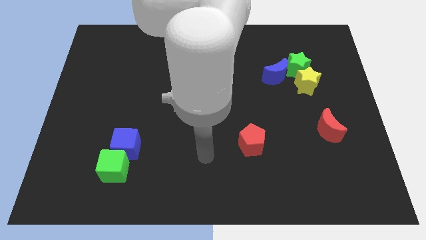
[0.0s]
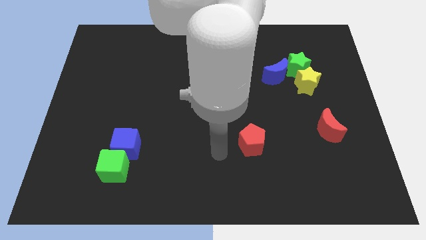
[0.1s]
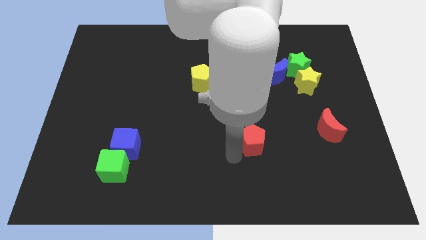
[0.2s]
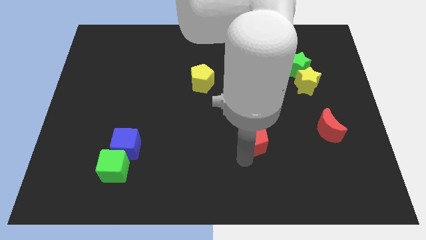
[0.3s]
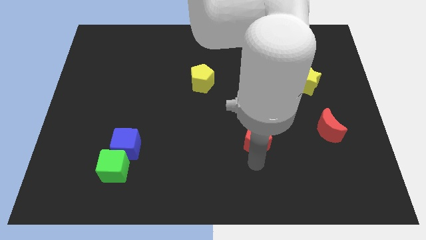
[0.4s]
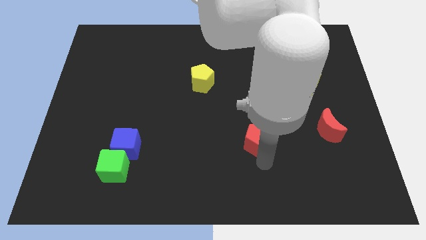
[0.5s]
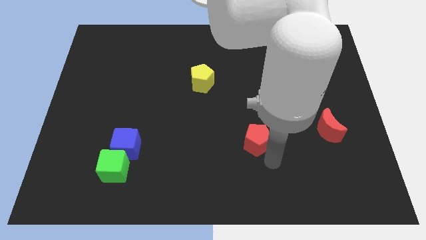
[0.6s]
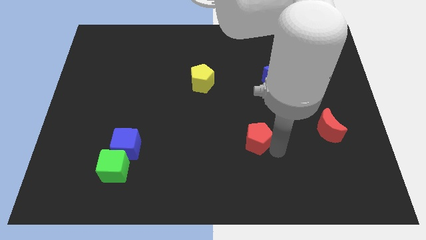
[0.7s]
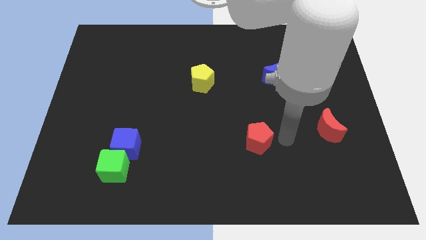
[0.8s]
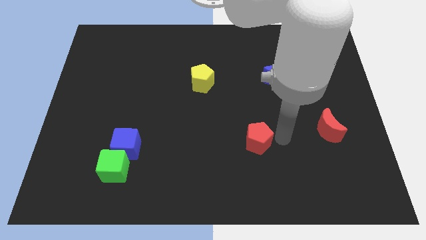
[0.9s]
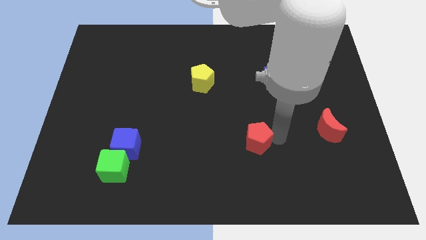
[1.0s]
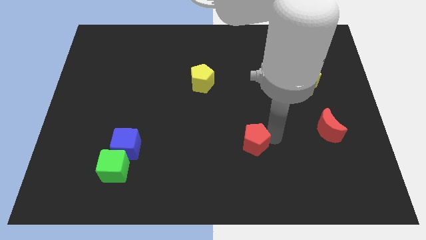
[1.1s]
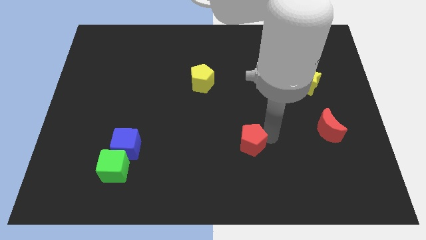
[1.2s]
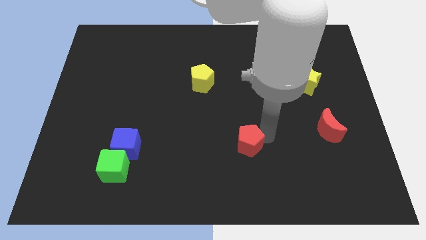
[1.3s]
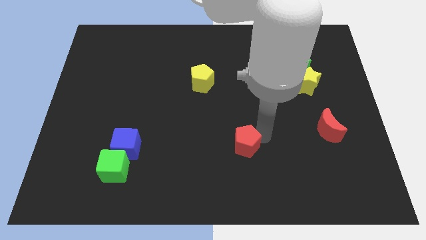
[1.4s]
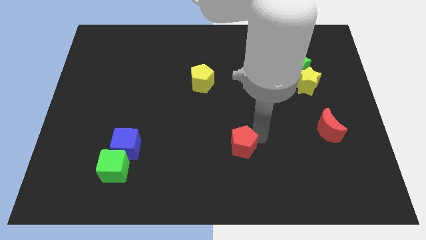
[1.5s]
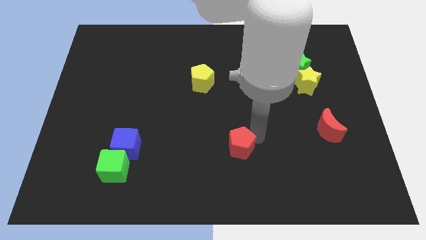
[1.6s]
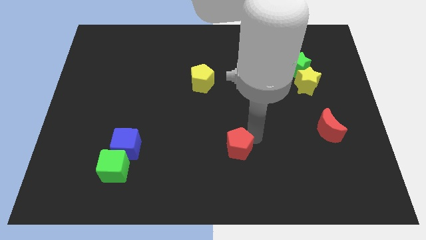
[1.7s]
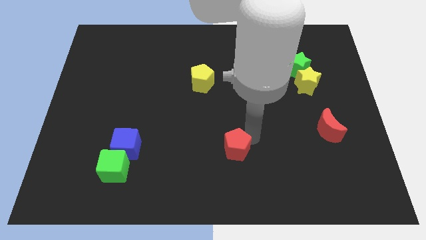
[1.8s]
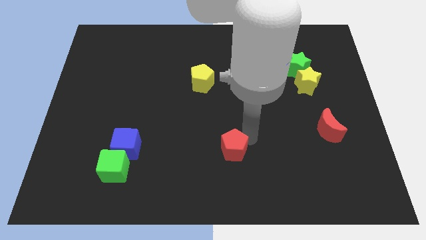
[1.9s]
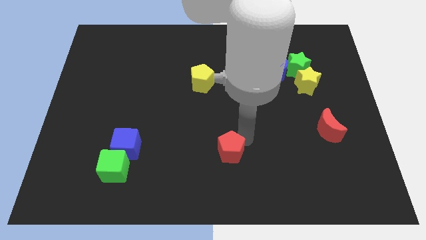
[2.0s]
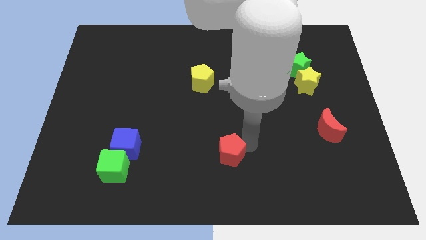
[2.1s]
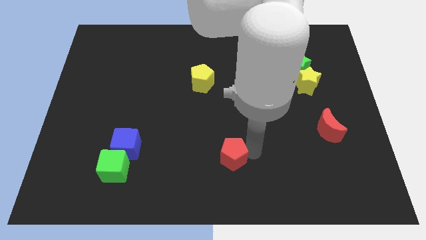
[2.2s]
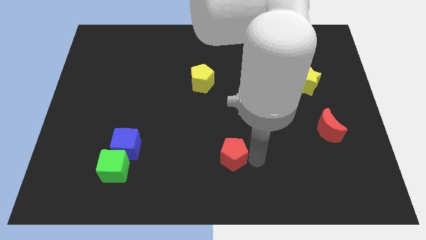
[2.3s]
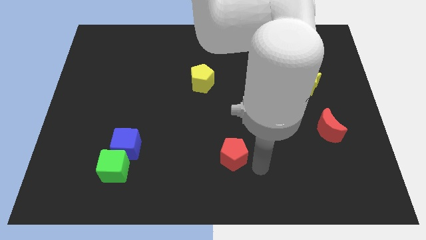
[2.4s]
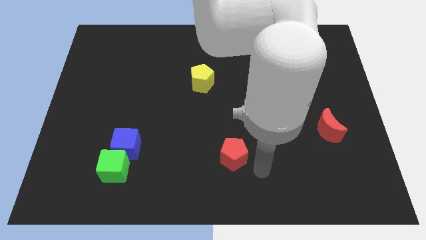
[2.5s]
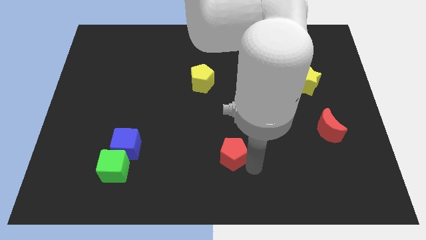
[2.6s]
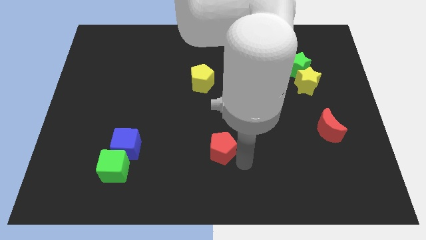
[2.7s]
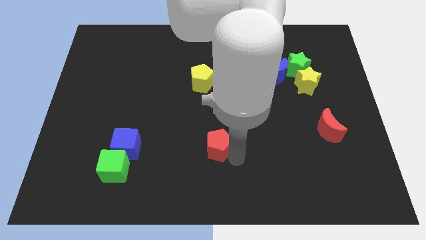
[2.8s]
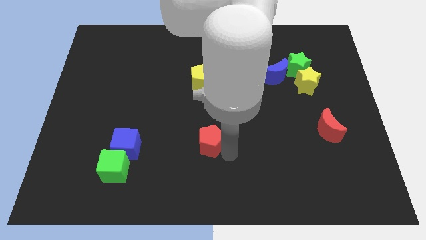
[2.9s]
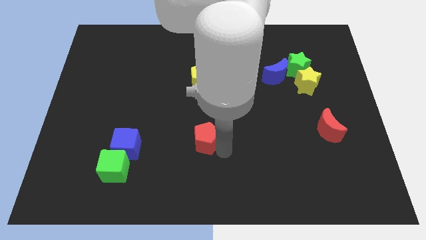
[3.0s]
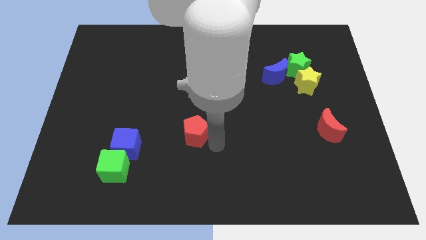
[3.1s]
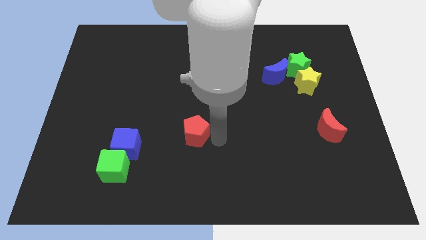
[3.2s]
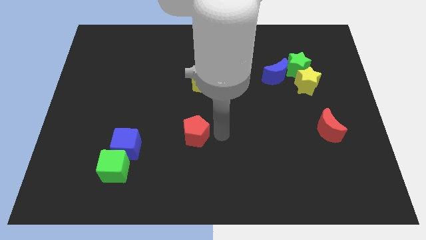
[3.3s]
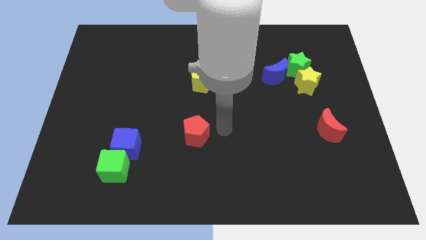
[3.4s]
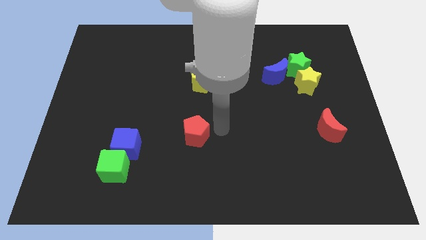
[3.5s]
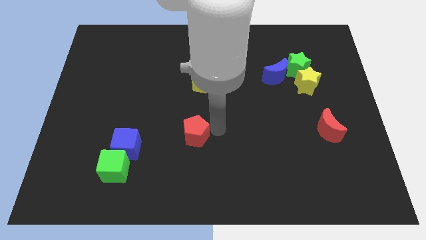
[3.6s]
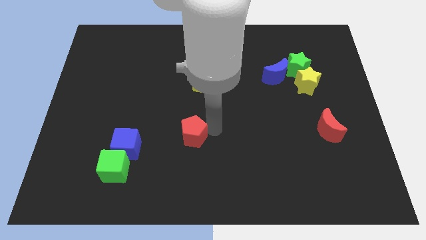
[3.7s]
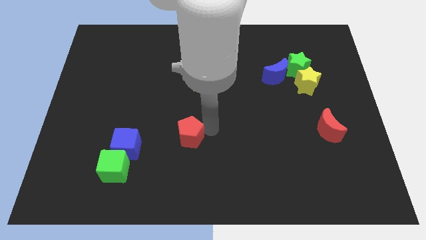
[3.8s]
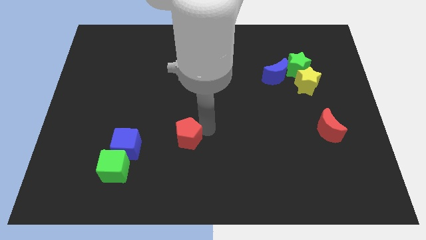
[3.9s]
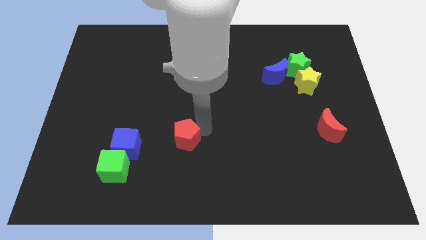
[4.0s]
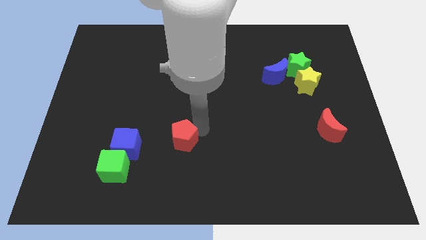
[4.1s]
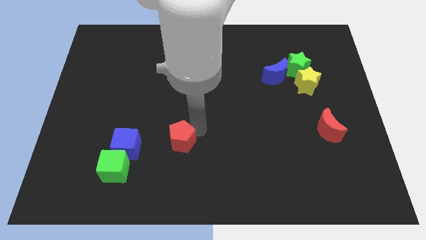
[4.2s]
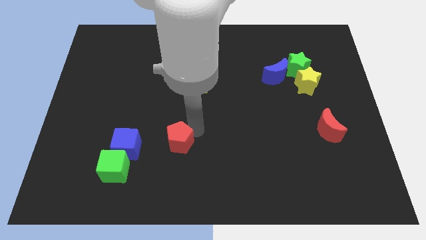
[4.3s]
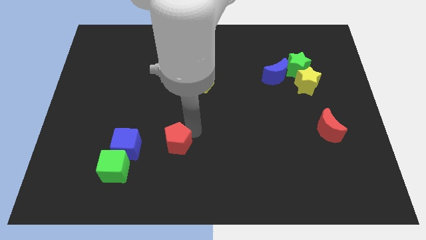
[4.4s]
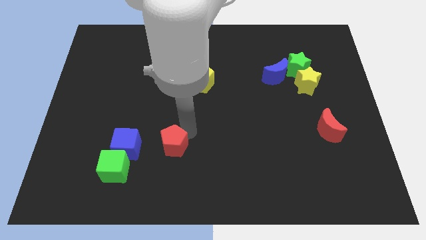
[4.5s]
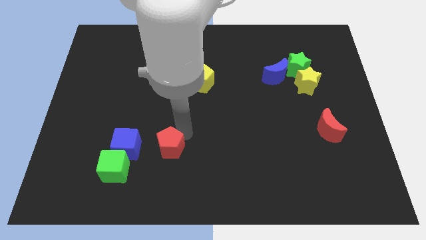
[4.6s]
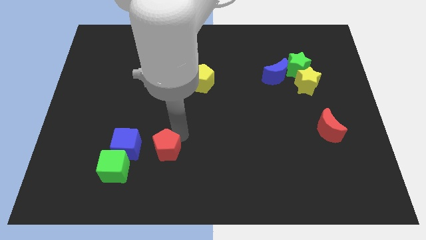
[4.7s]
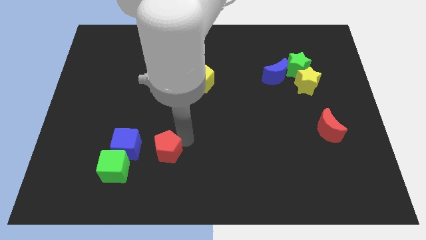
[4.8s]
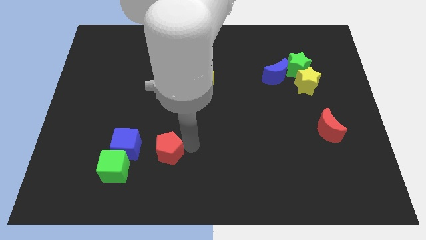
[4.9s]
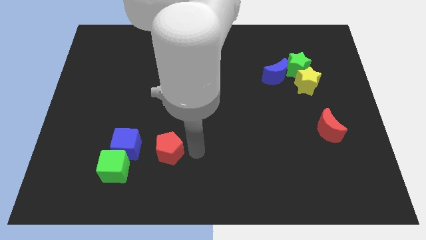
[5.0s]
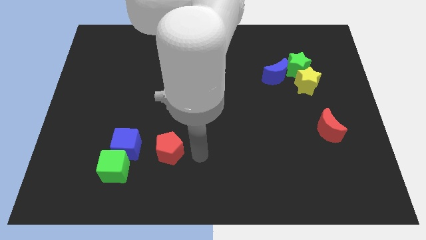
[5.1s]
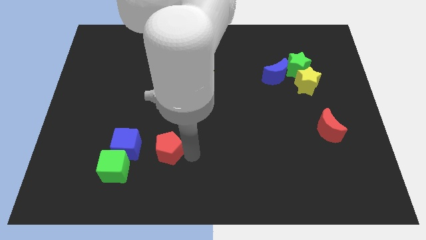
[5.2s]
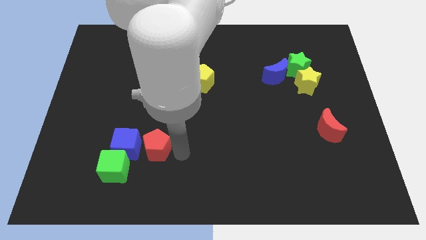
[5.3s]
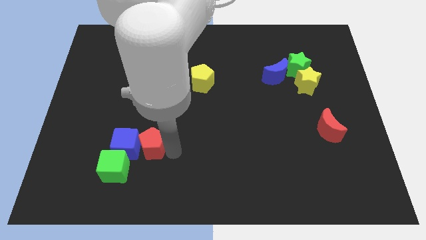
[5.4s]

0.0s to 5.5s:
put the red pentagon close to the blue cube

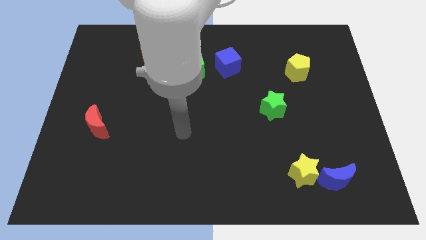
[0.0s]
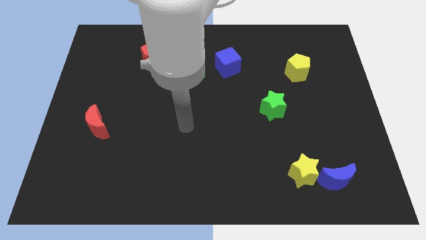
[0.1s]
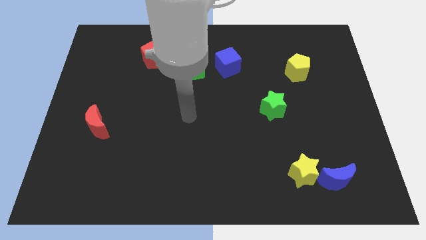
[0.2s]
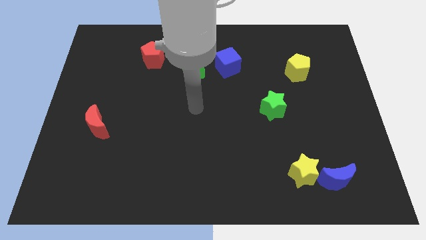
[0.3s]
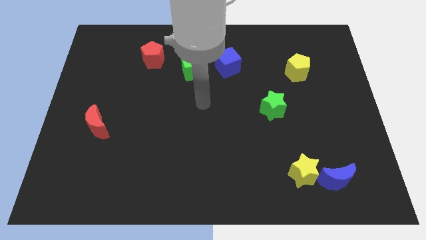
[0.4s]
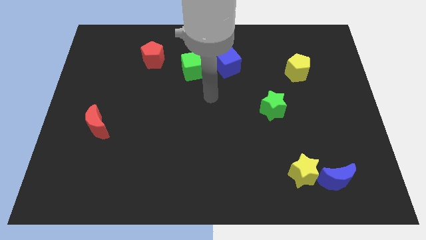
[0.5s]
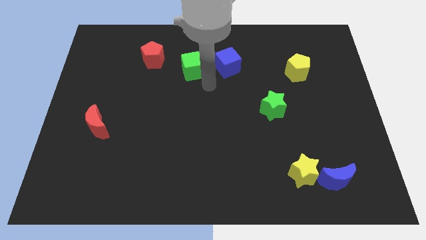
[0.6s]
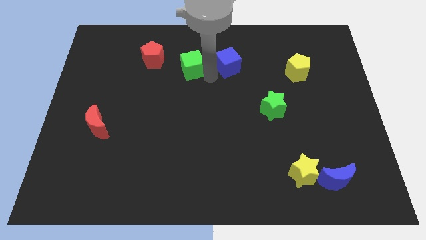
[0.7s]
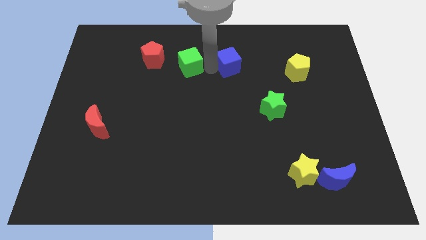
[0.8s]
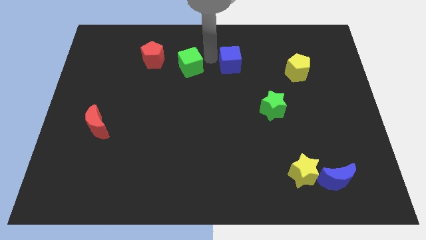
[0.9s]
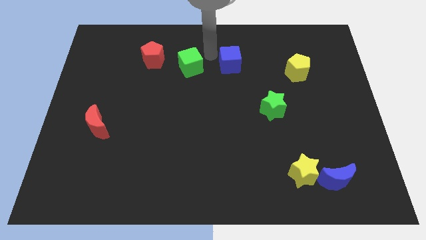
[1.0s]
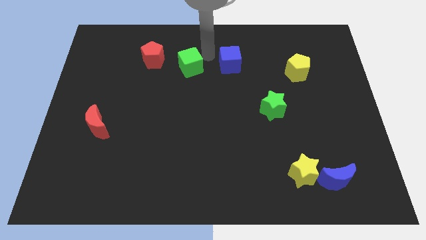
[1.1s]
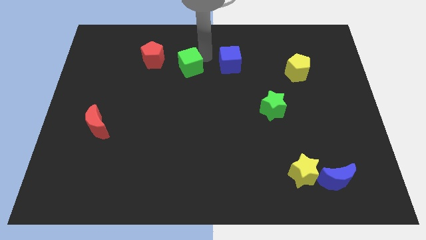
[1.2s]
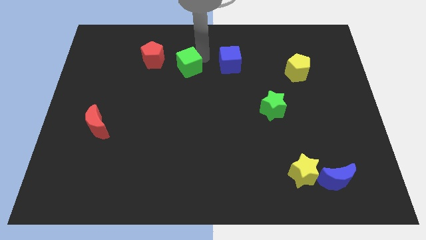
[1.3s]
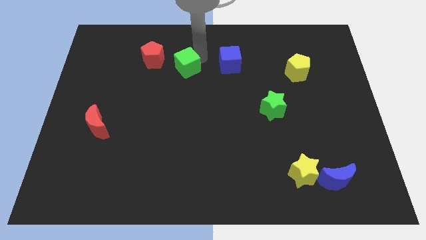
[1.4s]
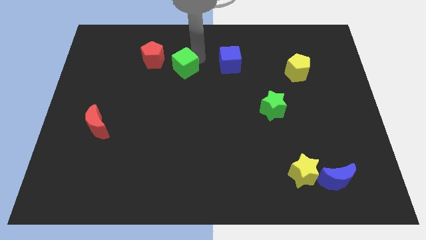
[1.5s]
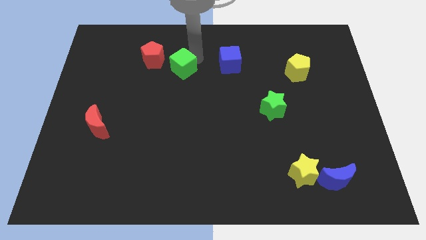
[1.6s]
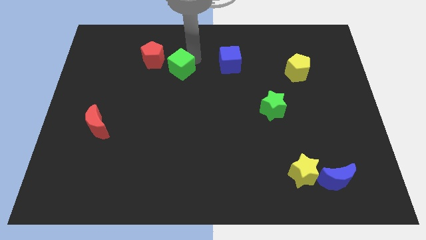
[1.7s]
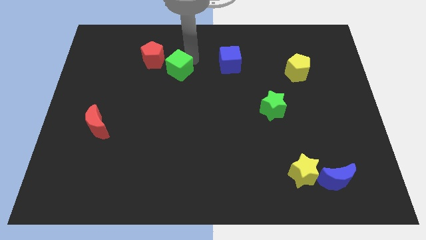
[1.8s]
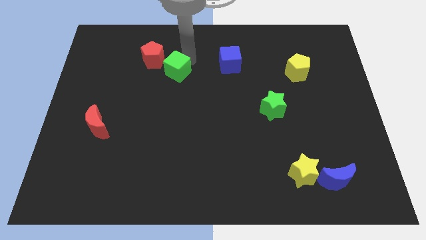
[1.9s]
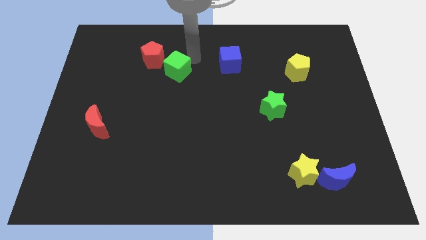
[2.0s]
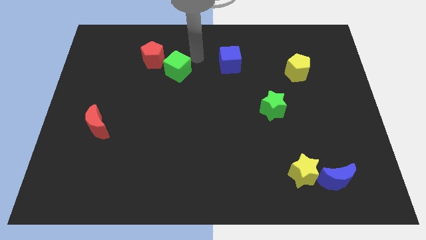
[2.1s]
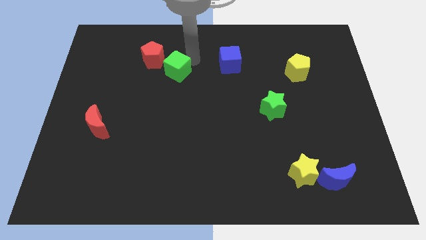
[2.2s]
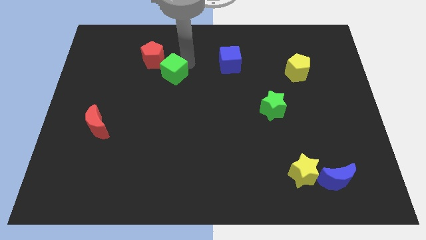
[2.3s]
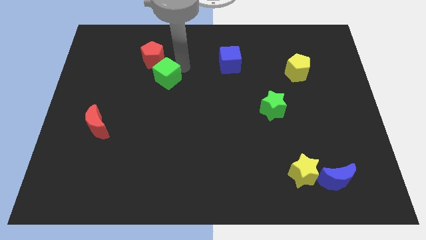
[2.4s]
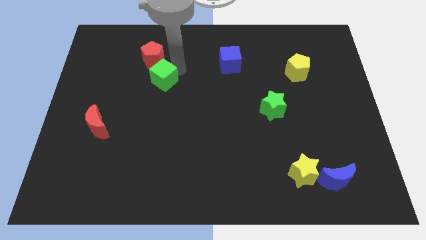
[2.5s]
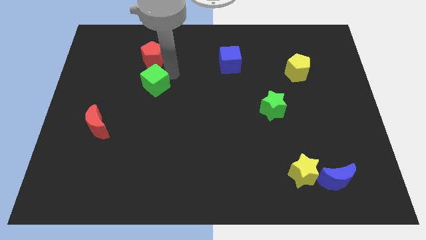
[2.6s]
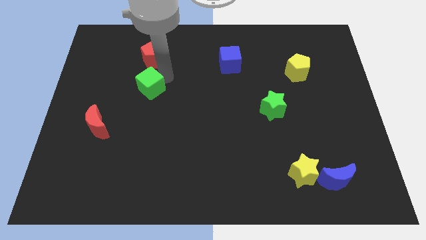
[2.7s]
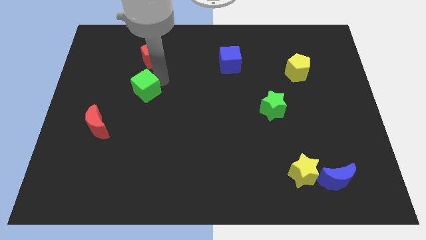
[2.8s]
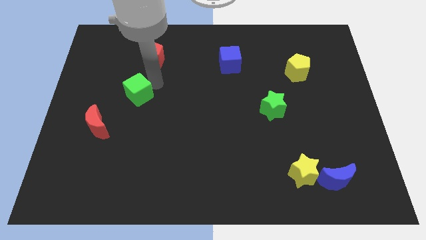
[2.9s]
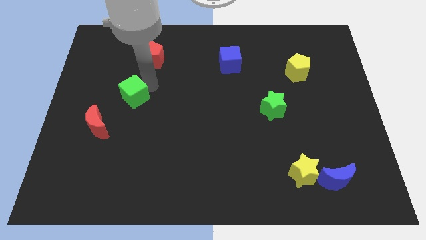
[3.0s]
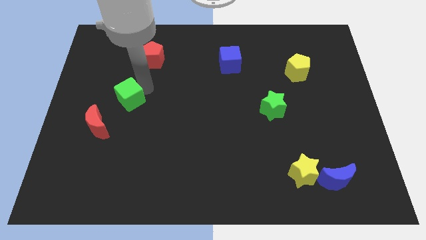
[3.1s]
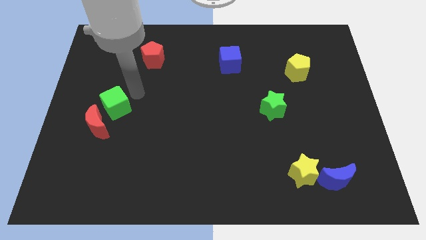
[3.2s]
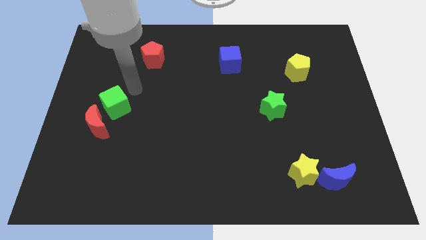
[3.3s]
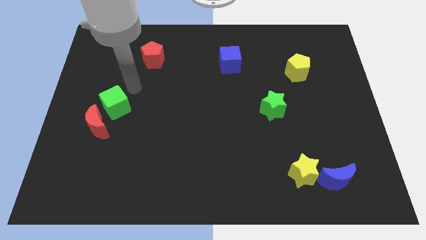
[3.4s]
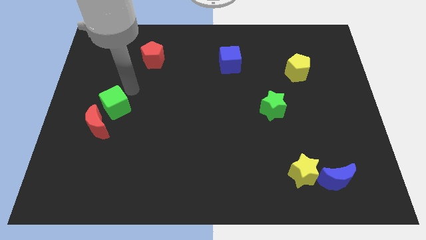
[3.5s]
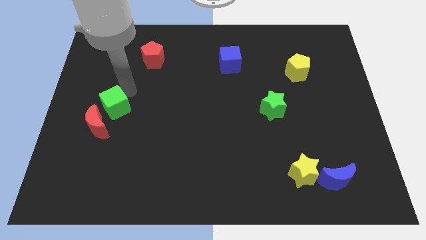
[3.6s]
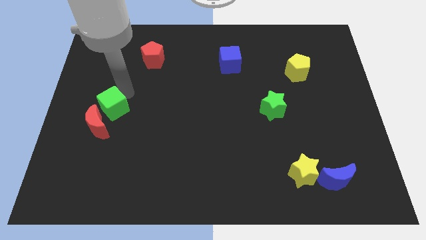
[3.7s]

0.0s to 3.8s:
push the green cube close to the red moon
